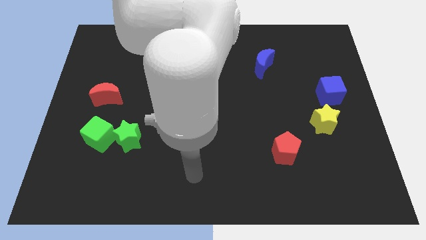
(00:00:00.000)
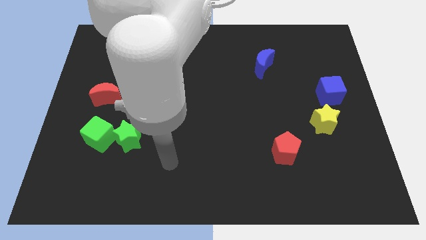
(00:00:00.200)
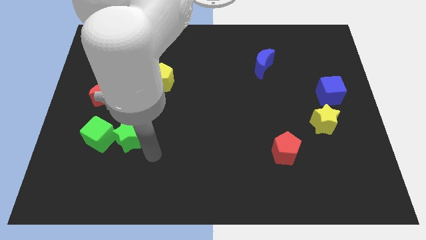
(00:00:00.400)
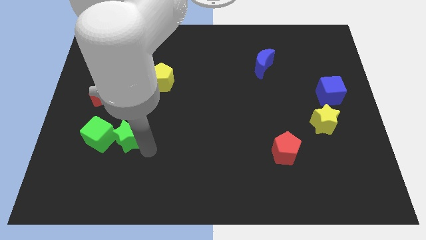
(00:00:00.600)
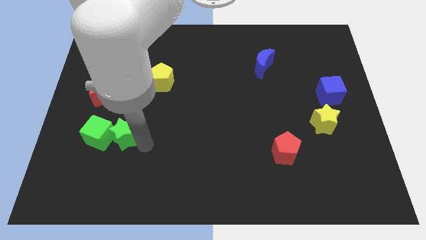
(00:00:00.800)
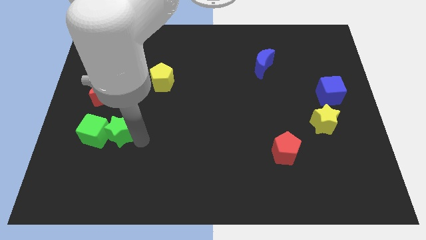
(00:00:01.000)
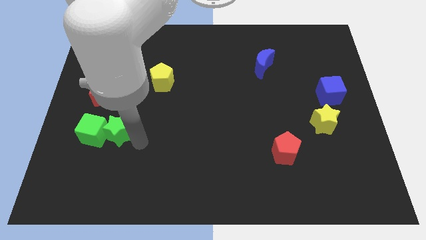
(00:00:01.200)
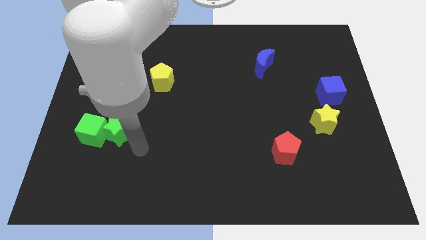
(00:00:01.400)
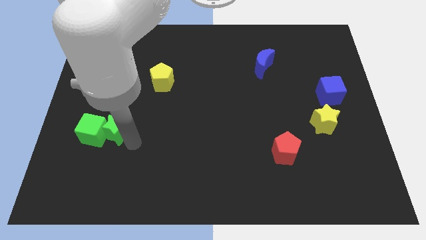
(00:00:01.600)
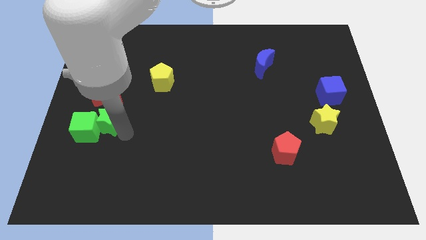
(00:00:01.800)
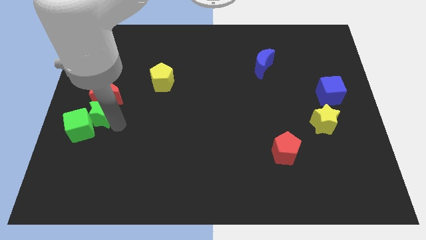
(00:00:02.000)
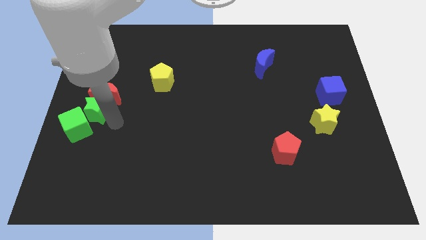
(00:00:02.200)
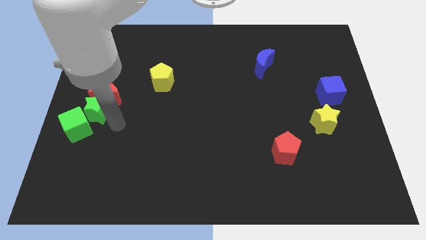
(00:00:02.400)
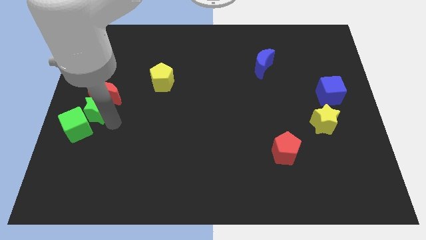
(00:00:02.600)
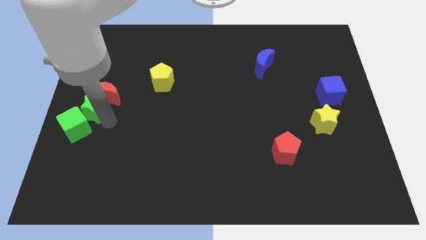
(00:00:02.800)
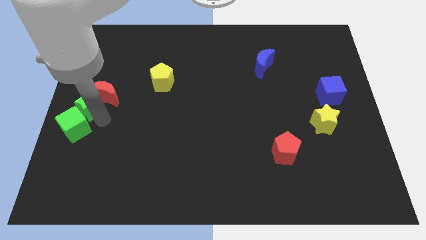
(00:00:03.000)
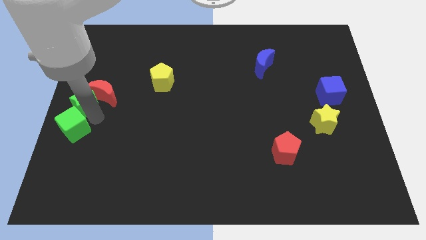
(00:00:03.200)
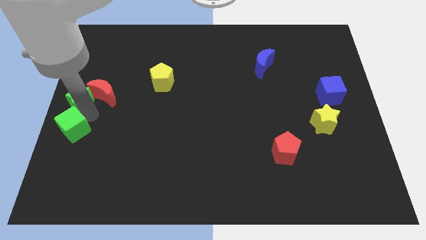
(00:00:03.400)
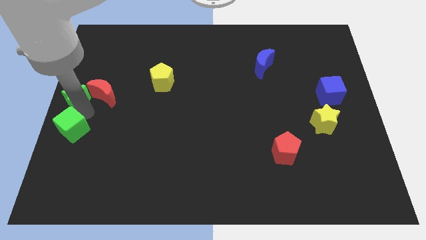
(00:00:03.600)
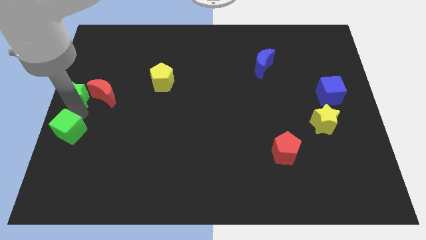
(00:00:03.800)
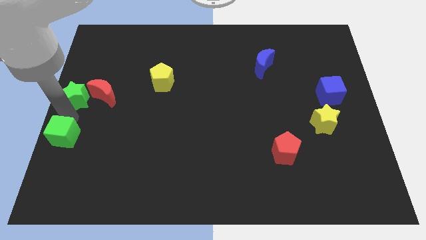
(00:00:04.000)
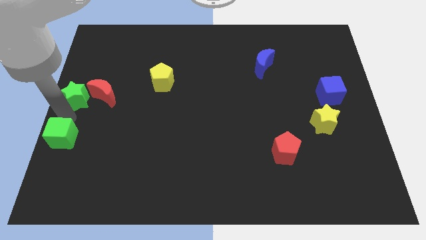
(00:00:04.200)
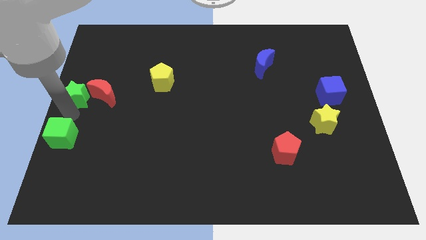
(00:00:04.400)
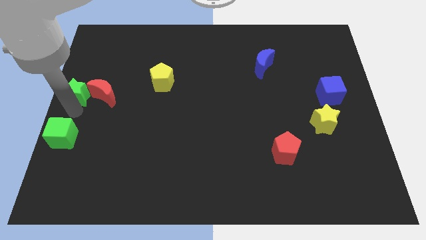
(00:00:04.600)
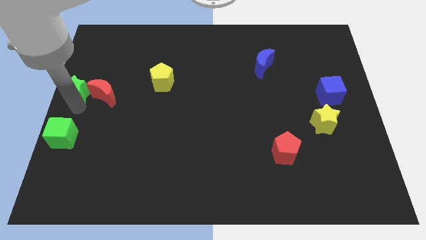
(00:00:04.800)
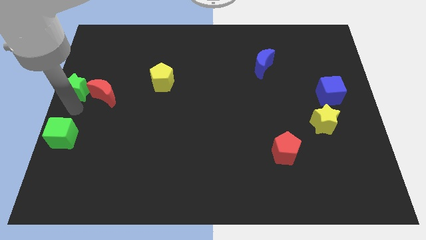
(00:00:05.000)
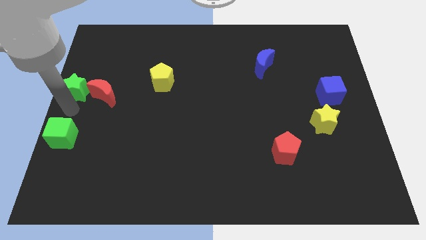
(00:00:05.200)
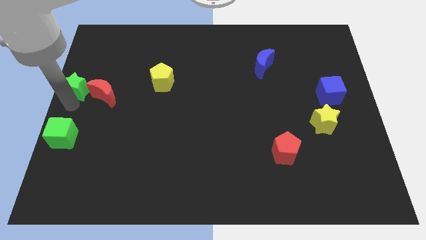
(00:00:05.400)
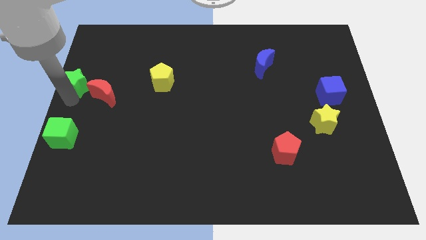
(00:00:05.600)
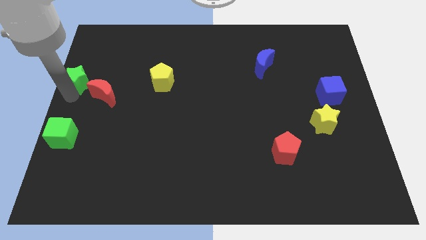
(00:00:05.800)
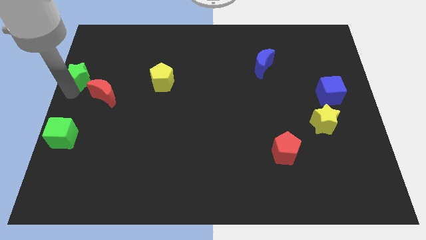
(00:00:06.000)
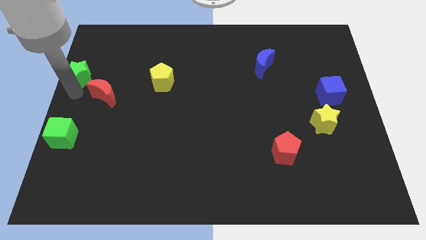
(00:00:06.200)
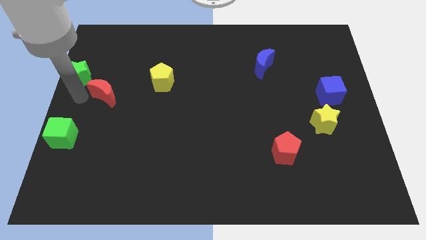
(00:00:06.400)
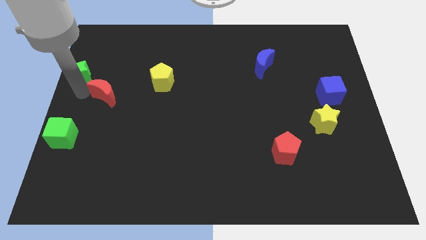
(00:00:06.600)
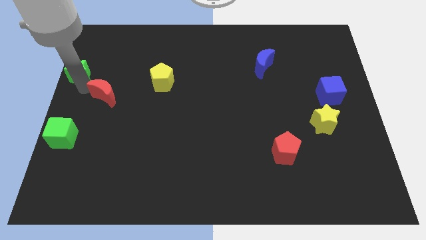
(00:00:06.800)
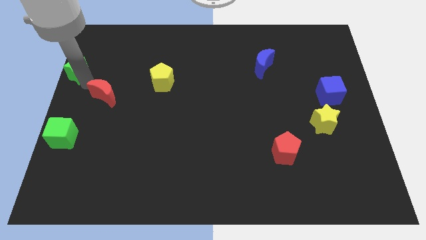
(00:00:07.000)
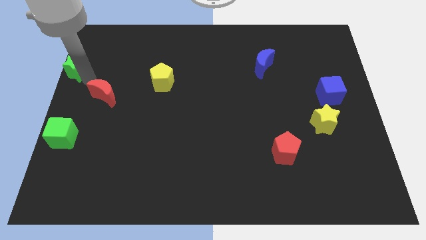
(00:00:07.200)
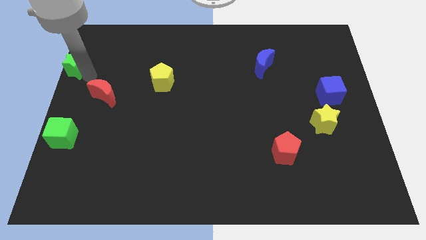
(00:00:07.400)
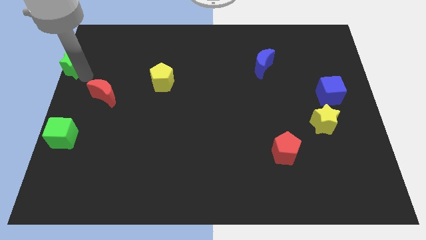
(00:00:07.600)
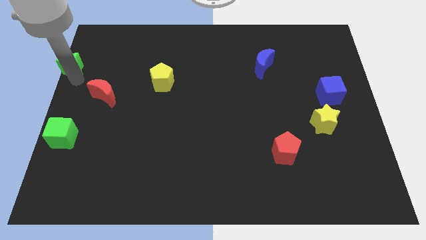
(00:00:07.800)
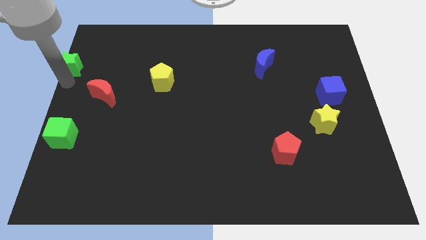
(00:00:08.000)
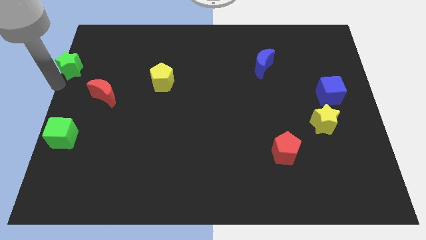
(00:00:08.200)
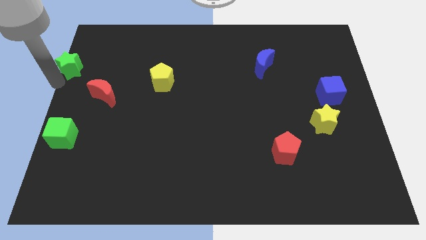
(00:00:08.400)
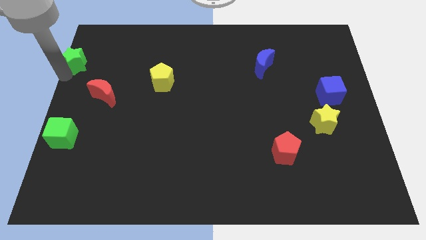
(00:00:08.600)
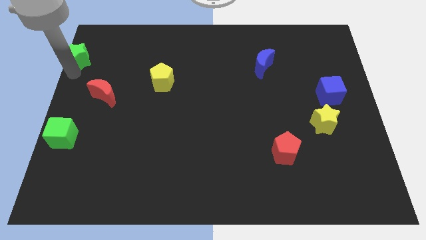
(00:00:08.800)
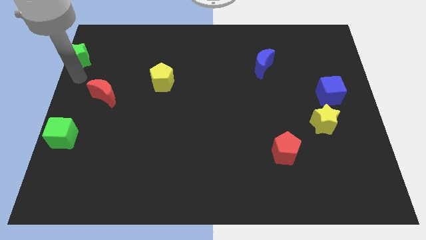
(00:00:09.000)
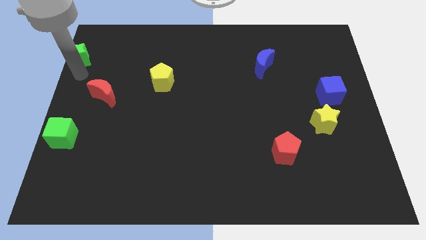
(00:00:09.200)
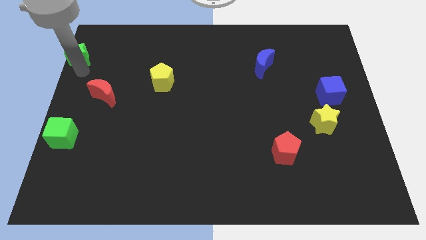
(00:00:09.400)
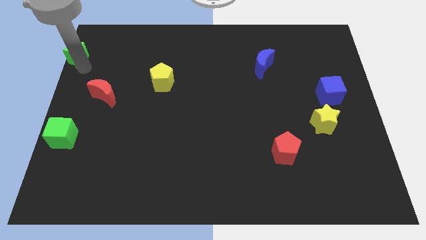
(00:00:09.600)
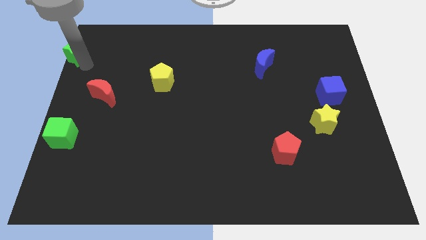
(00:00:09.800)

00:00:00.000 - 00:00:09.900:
slide the green star to the upper left corner

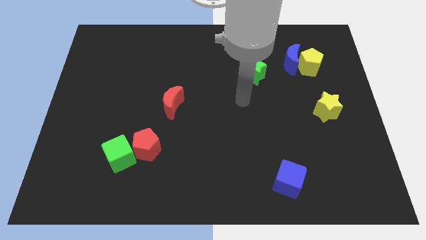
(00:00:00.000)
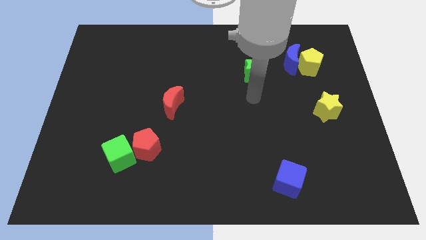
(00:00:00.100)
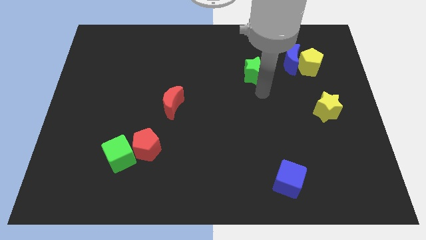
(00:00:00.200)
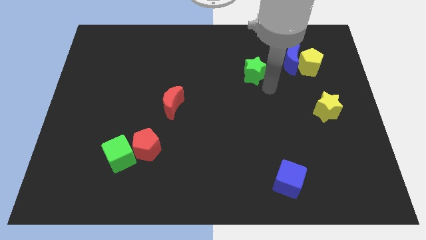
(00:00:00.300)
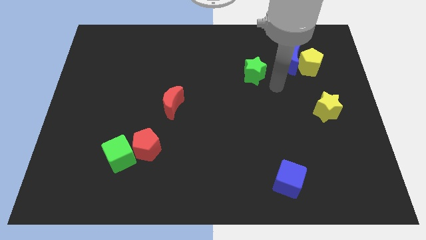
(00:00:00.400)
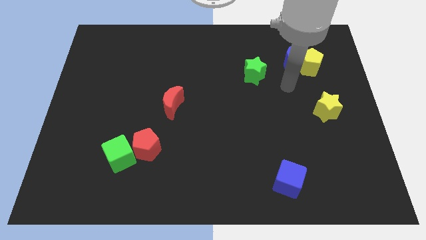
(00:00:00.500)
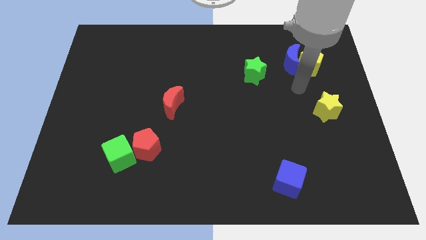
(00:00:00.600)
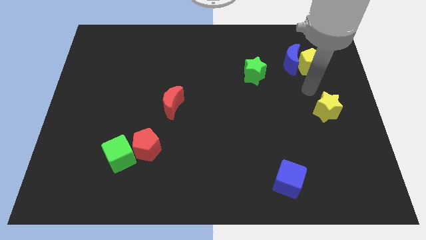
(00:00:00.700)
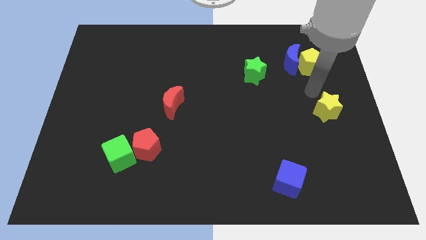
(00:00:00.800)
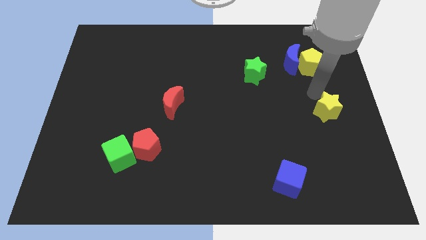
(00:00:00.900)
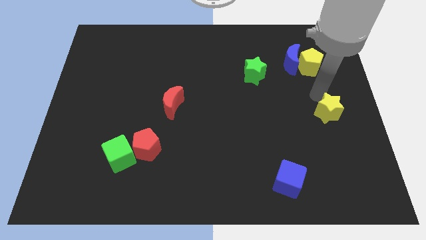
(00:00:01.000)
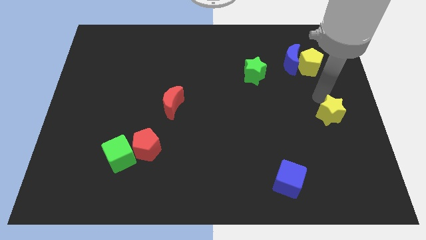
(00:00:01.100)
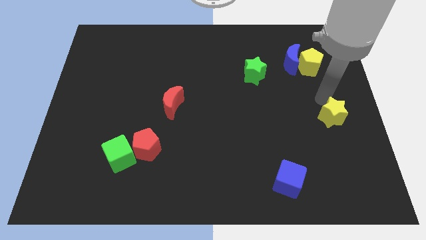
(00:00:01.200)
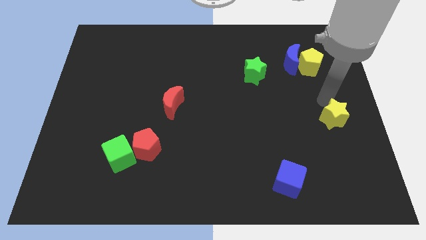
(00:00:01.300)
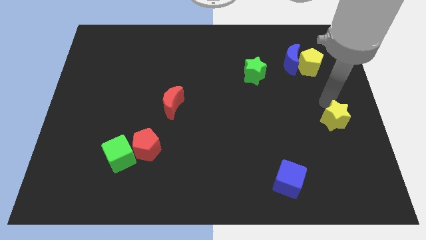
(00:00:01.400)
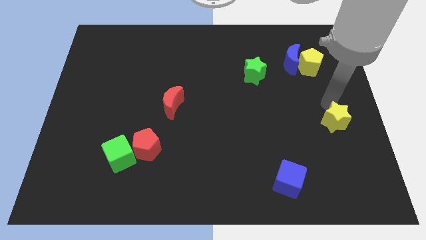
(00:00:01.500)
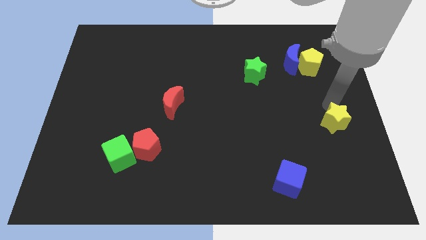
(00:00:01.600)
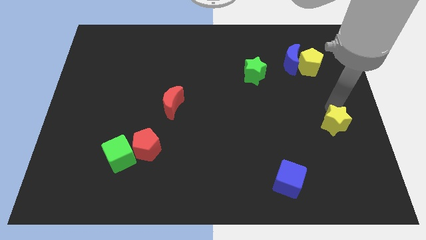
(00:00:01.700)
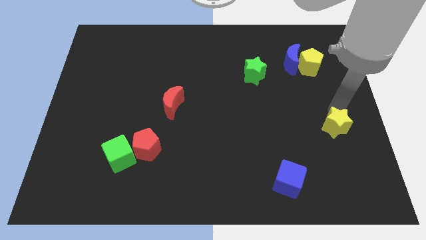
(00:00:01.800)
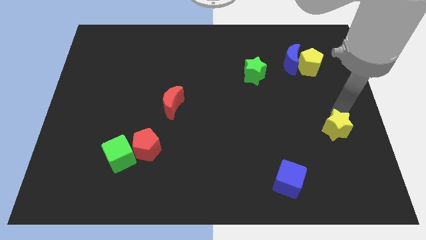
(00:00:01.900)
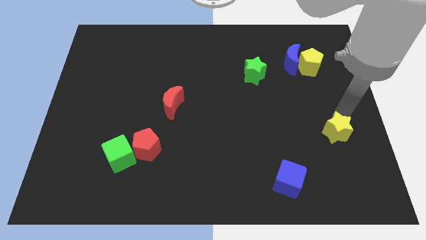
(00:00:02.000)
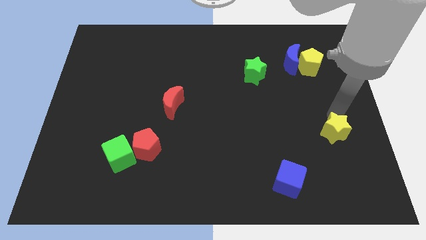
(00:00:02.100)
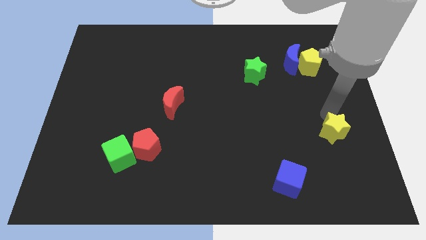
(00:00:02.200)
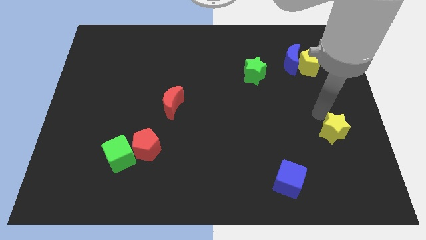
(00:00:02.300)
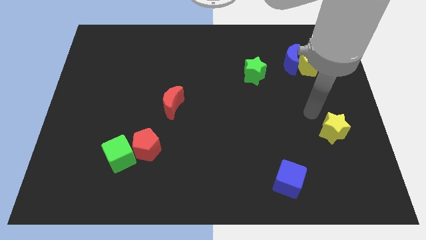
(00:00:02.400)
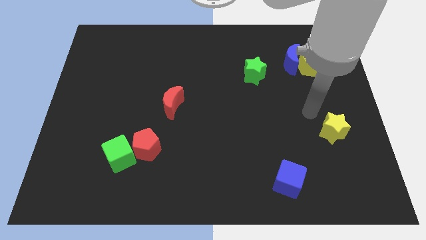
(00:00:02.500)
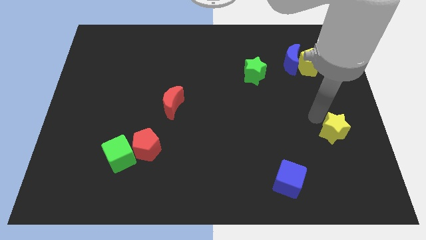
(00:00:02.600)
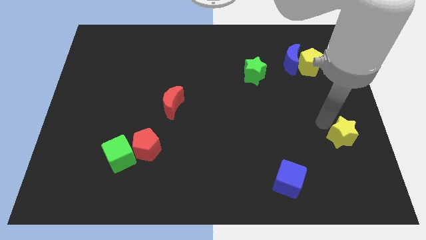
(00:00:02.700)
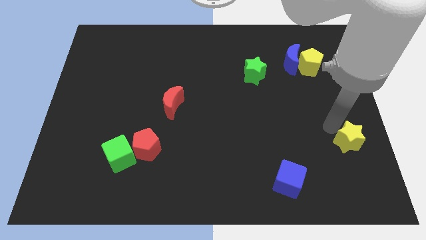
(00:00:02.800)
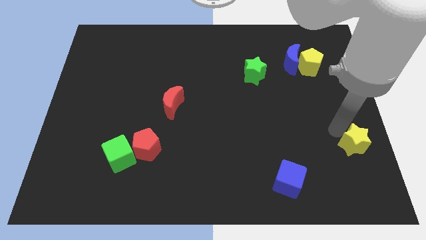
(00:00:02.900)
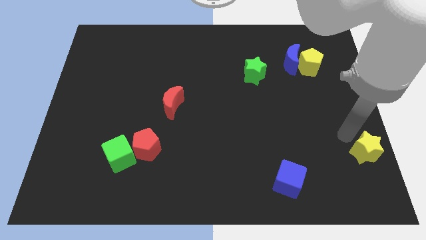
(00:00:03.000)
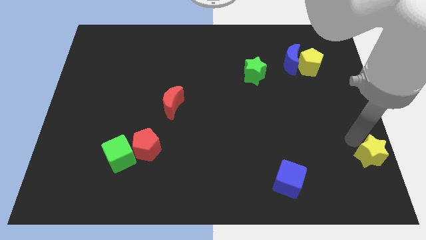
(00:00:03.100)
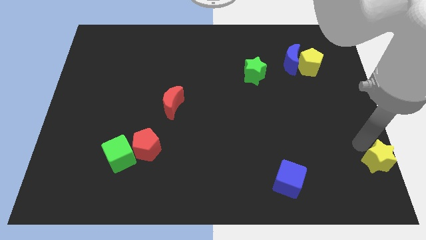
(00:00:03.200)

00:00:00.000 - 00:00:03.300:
move the yellow star to the bottom right
